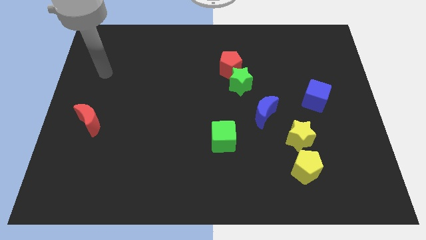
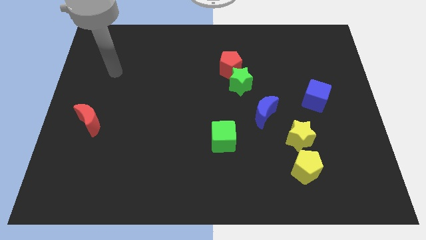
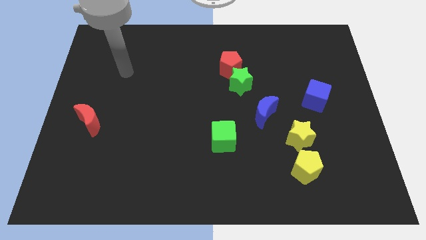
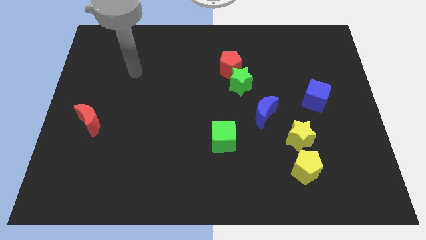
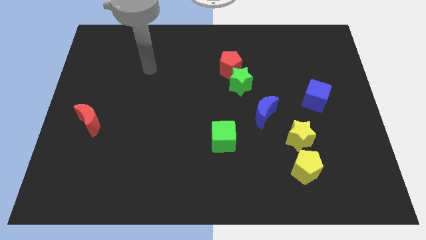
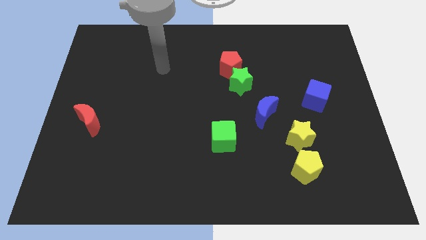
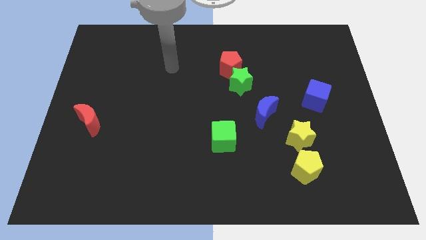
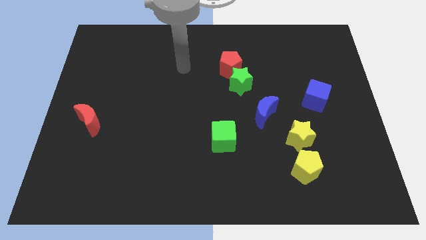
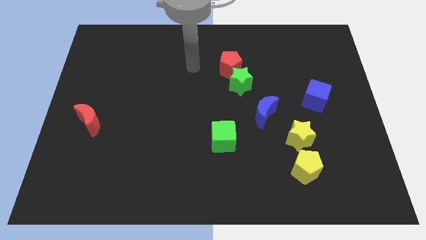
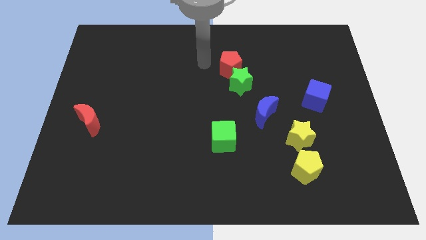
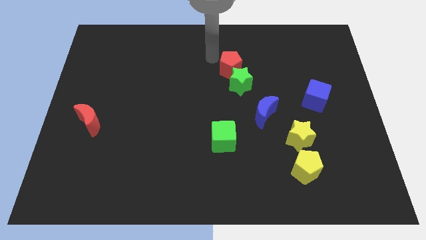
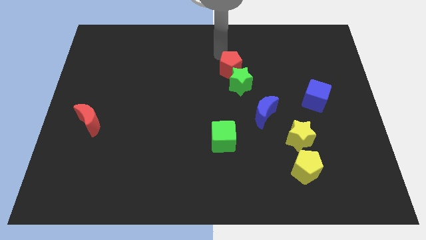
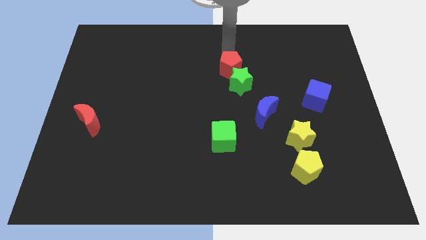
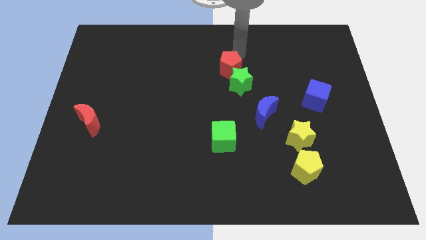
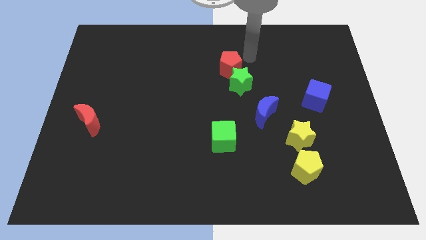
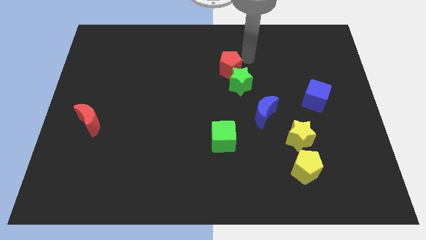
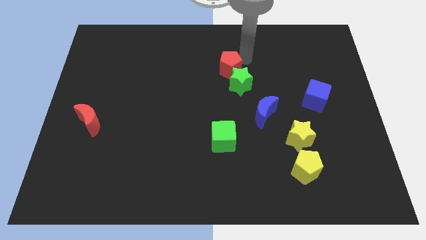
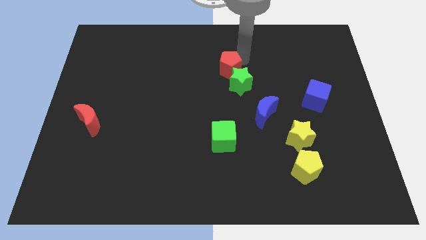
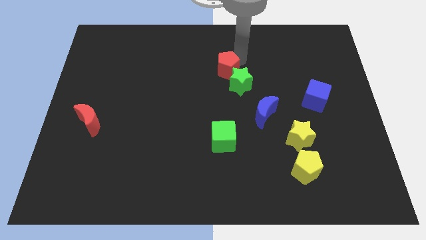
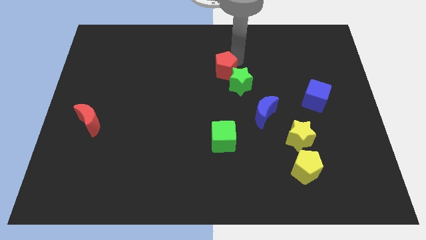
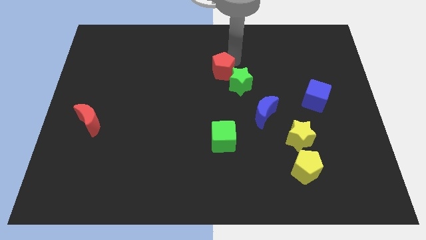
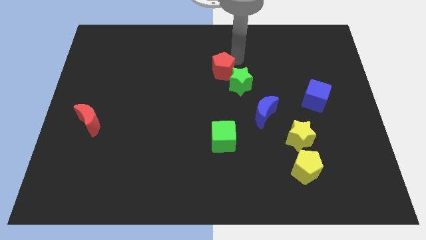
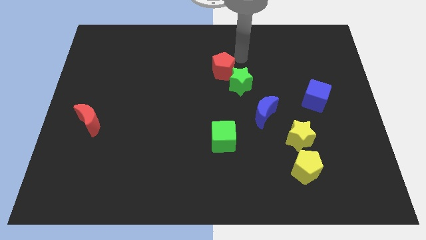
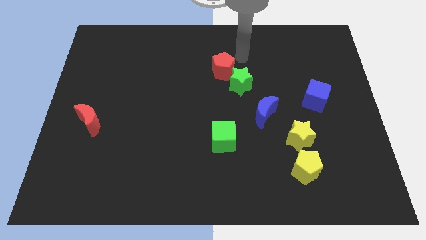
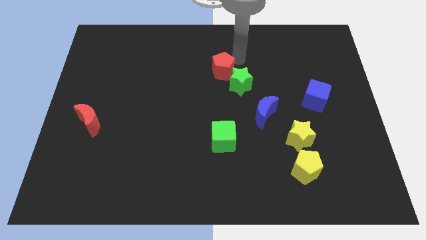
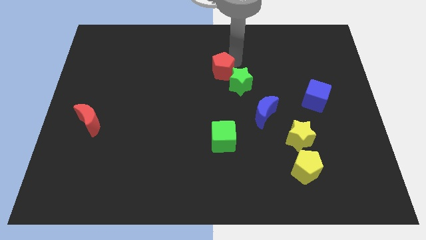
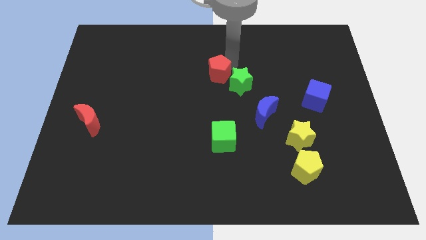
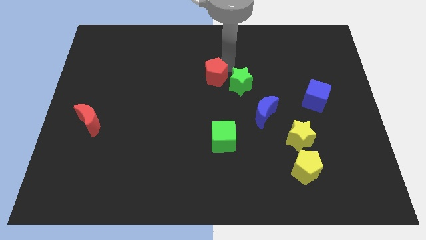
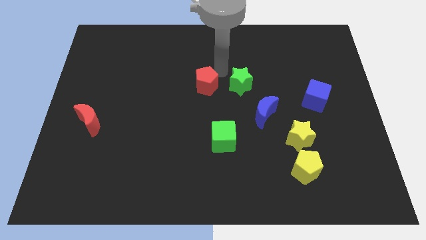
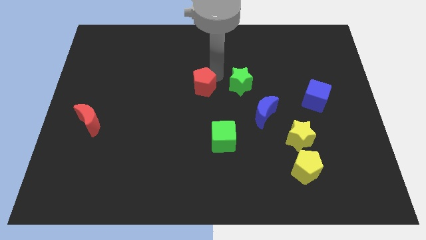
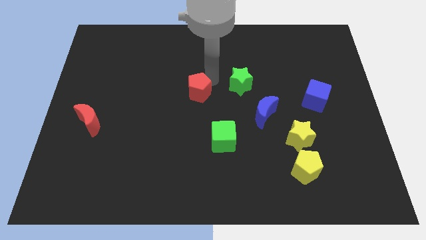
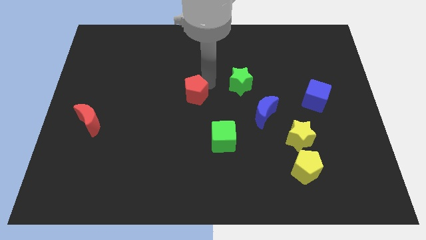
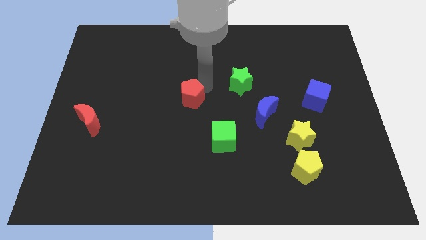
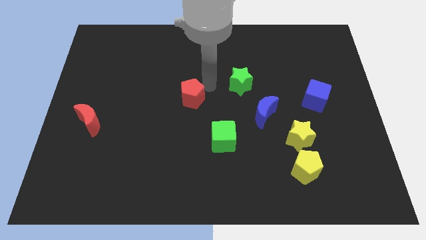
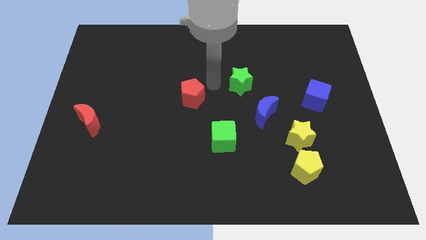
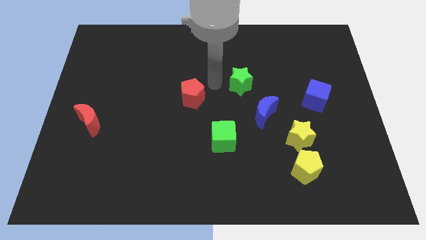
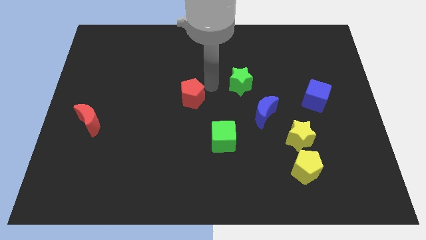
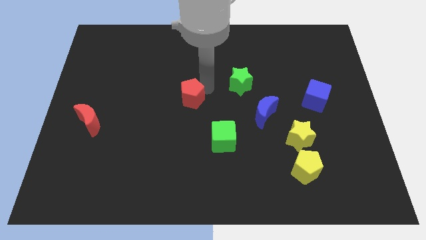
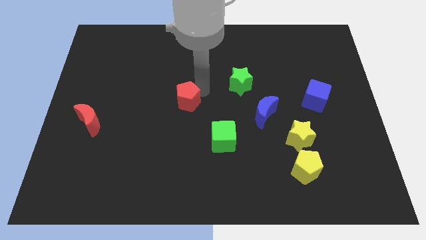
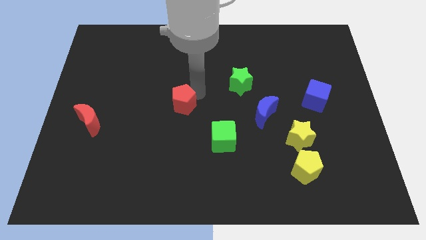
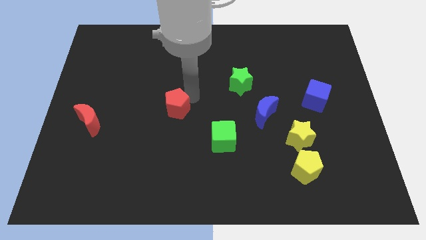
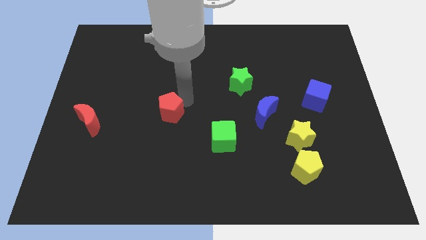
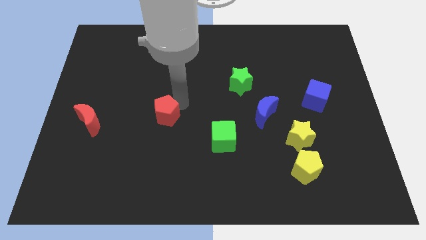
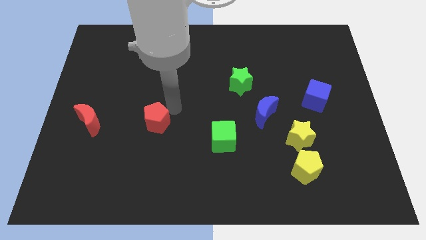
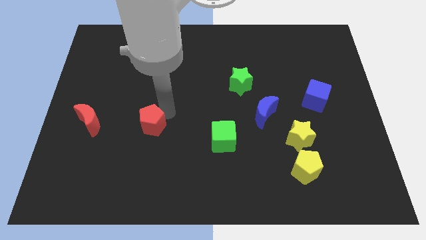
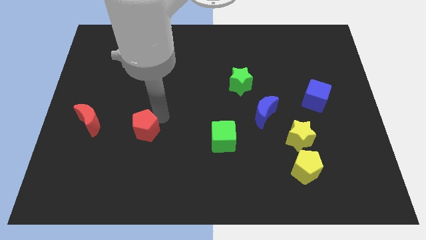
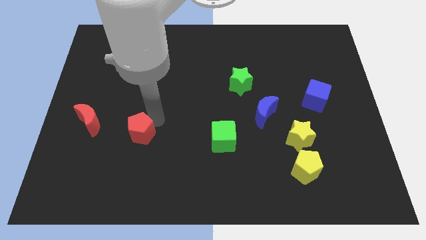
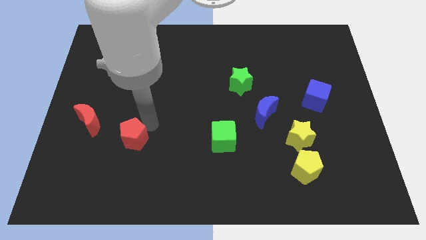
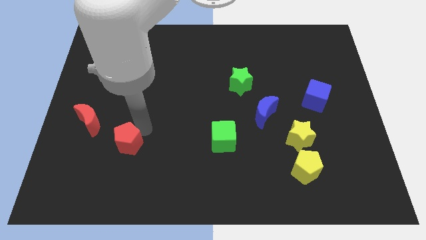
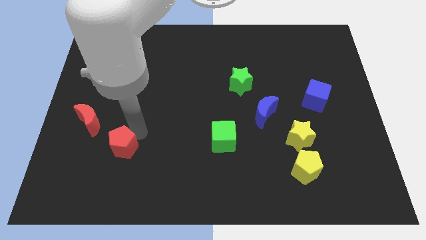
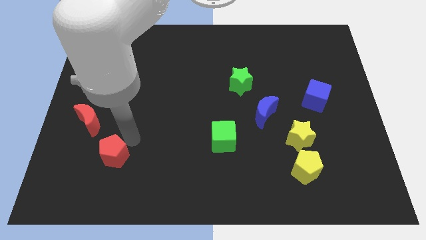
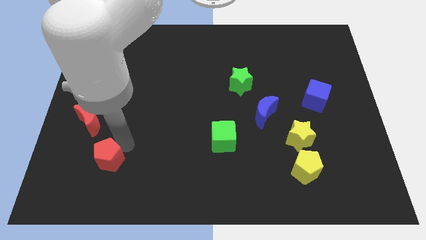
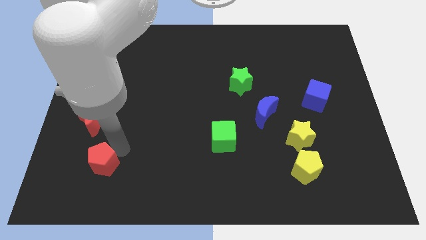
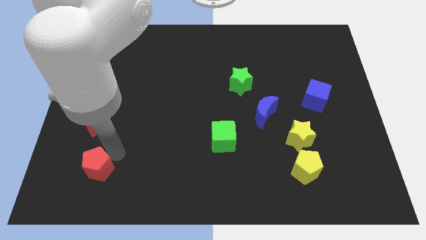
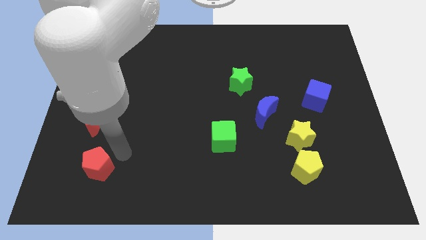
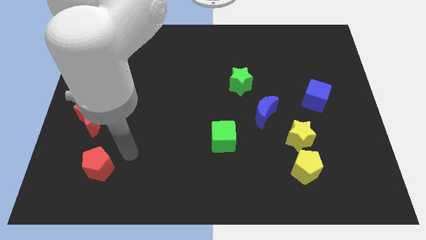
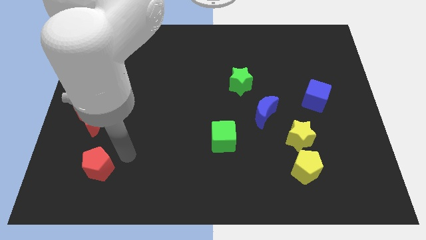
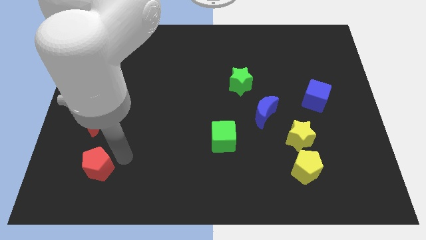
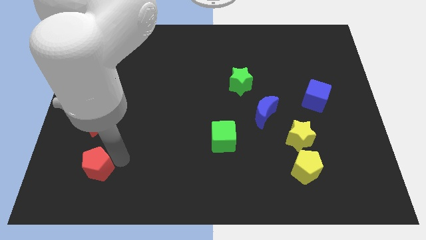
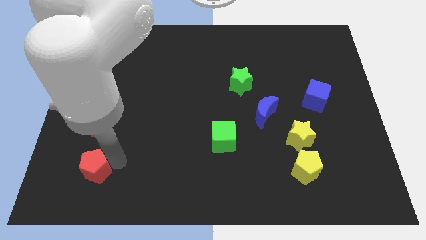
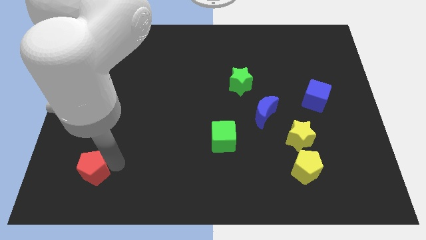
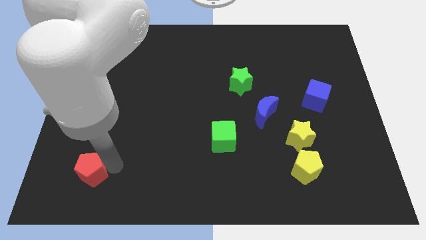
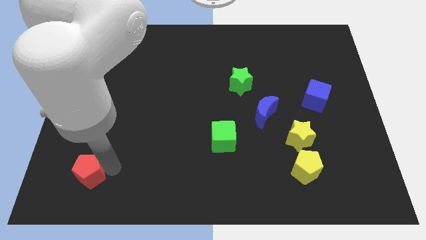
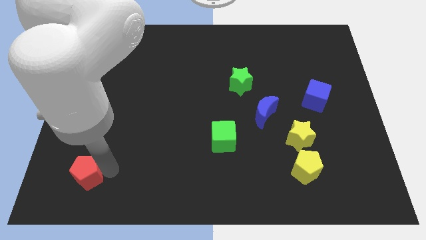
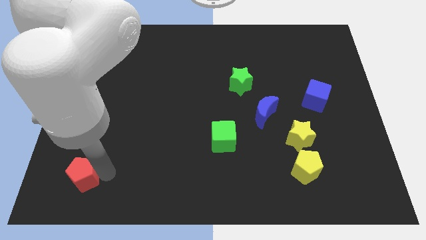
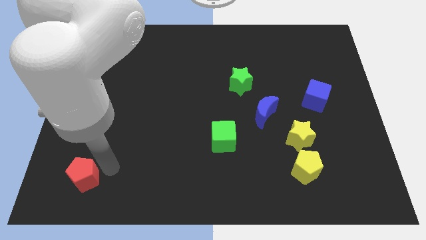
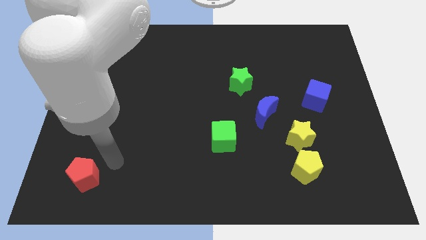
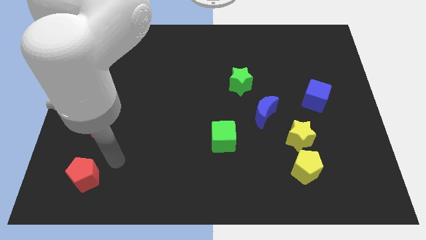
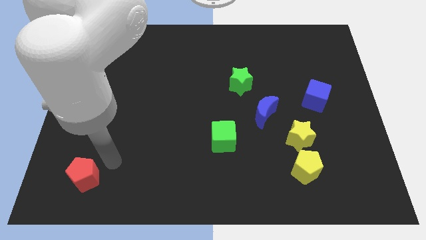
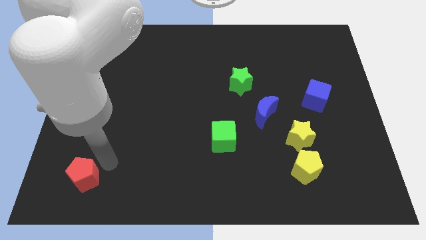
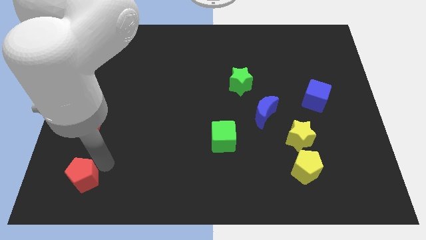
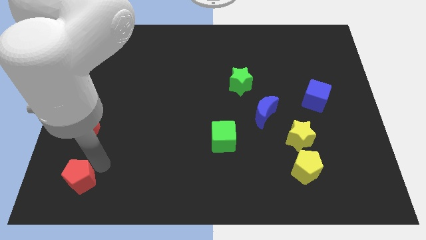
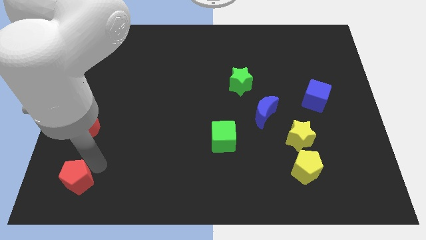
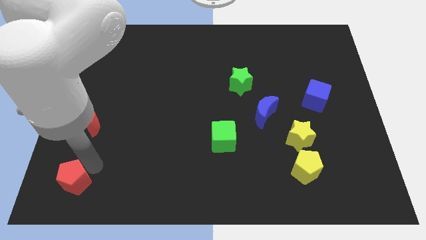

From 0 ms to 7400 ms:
push the red pentagon to the lower left corner
